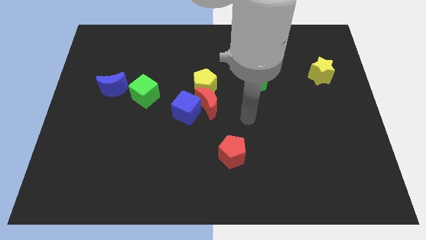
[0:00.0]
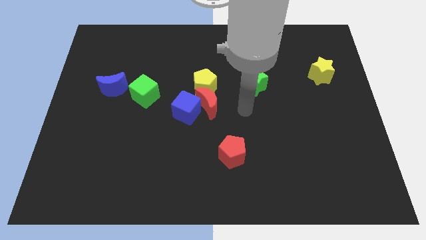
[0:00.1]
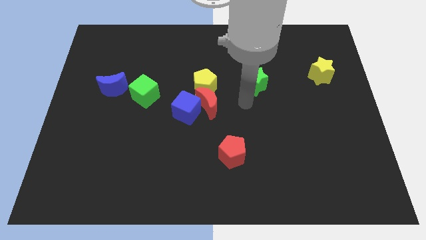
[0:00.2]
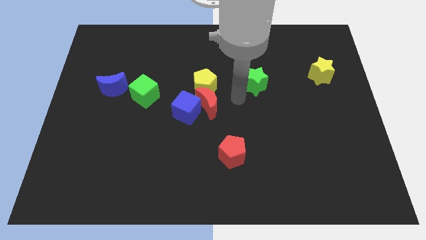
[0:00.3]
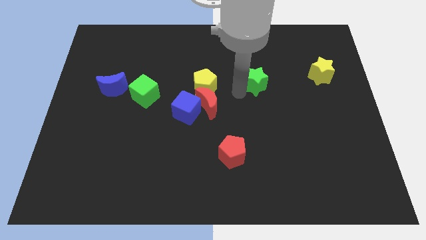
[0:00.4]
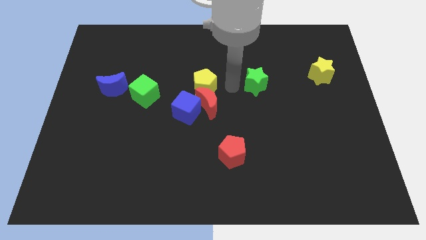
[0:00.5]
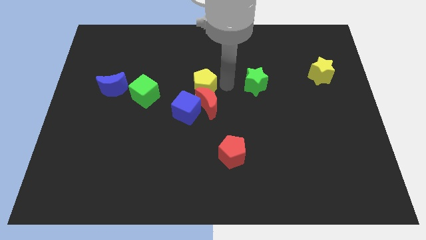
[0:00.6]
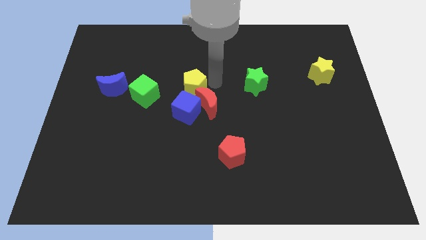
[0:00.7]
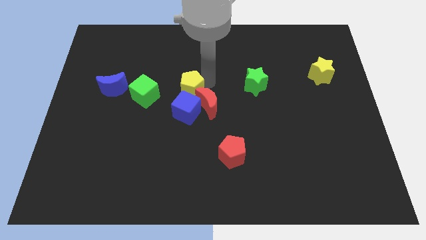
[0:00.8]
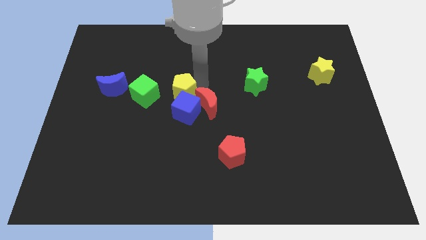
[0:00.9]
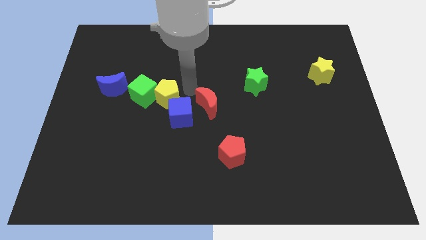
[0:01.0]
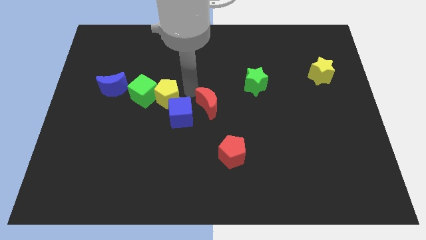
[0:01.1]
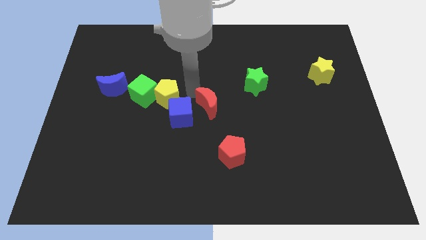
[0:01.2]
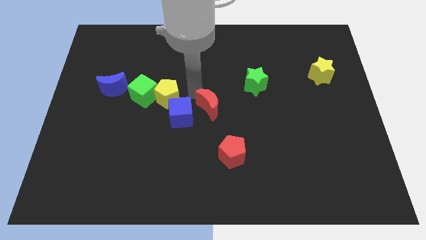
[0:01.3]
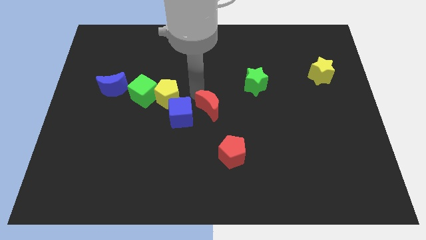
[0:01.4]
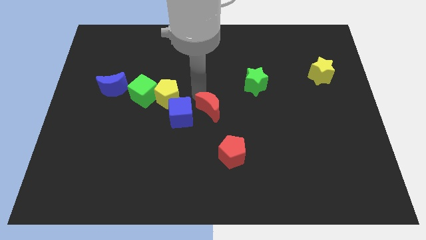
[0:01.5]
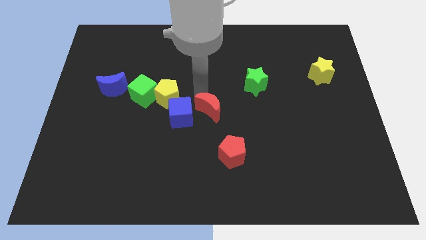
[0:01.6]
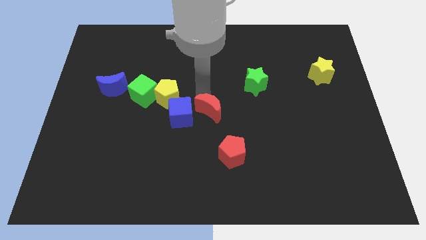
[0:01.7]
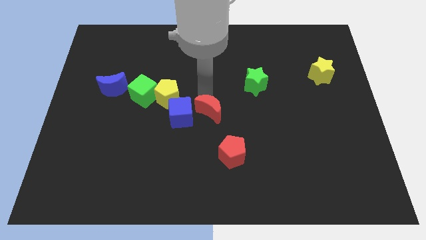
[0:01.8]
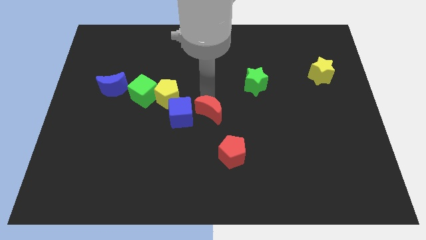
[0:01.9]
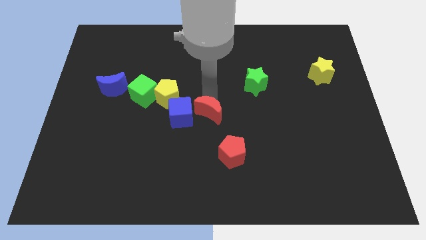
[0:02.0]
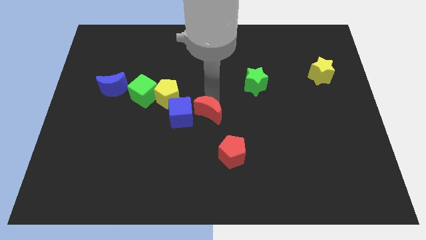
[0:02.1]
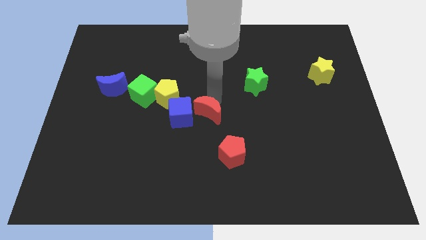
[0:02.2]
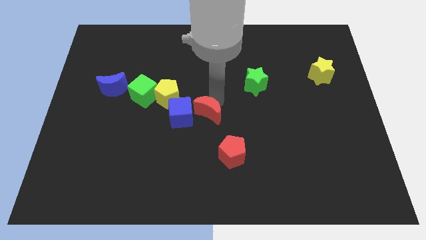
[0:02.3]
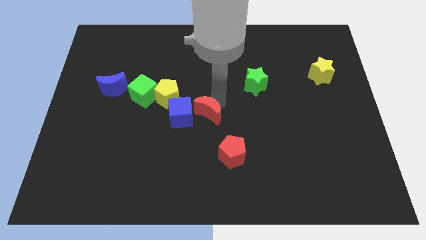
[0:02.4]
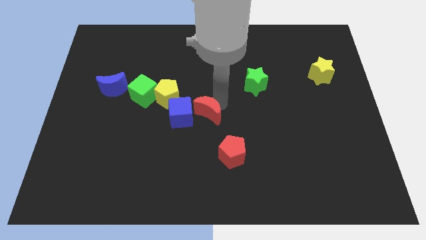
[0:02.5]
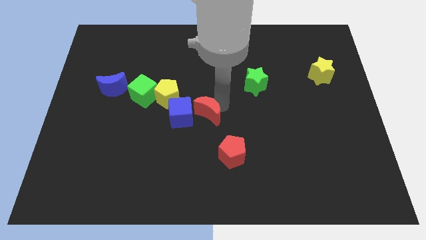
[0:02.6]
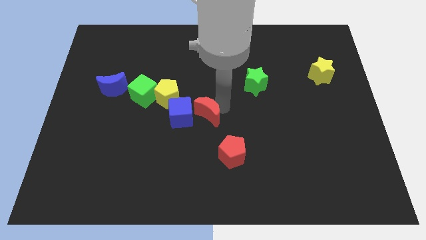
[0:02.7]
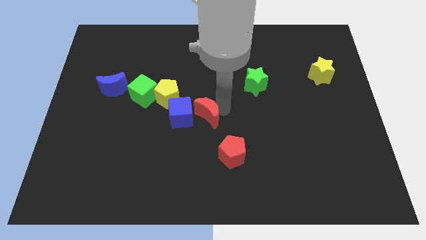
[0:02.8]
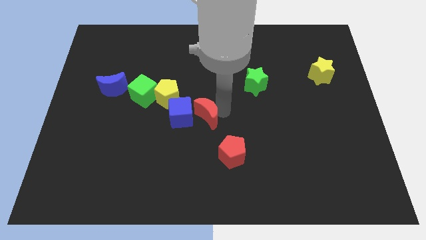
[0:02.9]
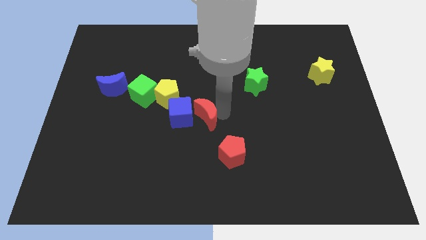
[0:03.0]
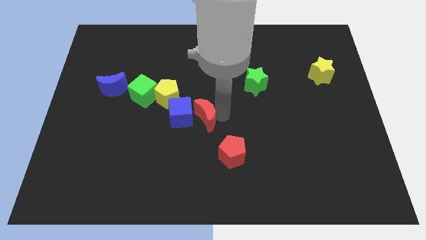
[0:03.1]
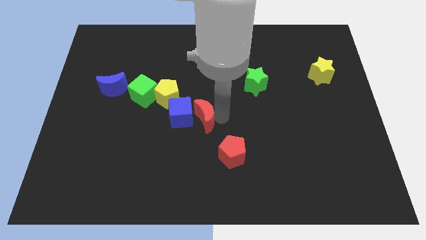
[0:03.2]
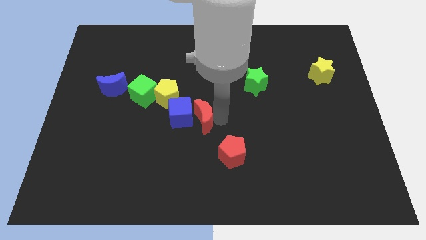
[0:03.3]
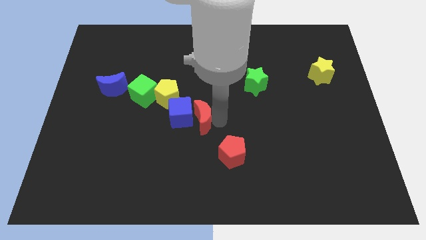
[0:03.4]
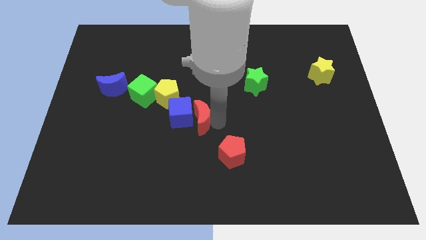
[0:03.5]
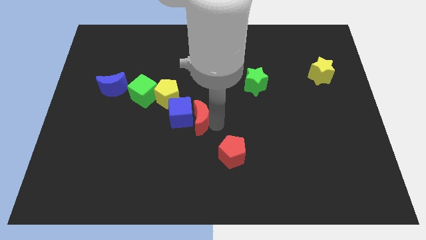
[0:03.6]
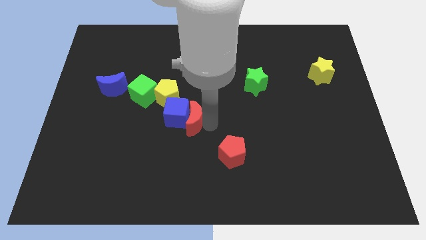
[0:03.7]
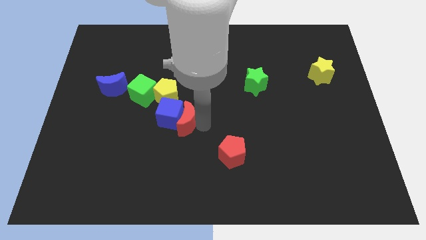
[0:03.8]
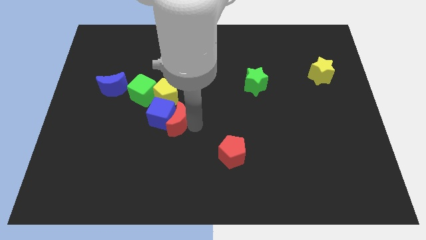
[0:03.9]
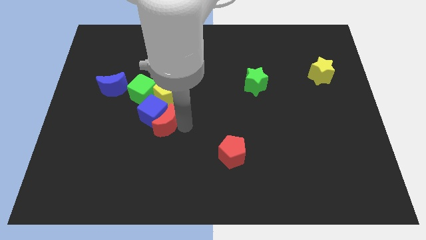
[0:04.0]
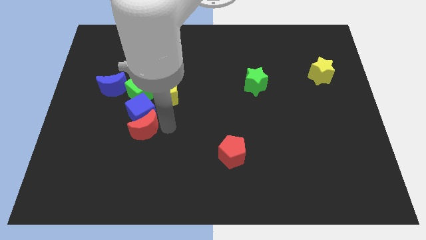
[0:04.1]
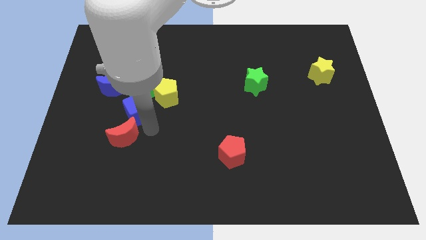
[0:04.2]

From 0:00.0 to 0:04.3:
separate the red moon from the blue cube and yellow pentagon

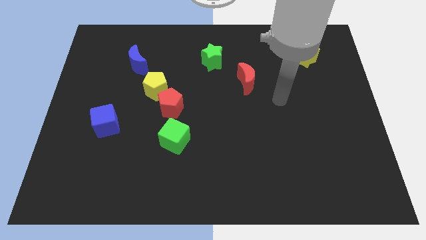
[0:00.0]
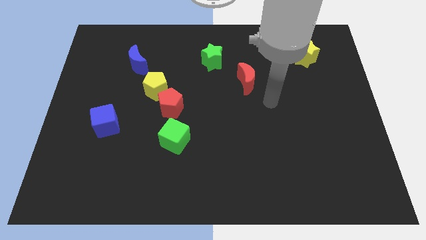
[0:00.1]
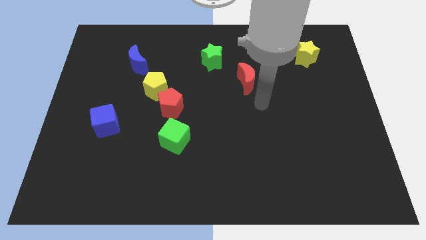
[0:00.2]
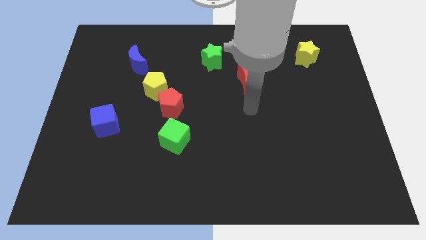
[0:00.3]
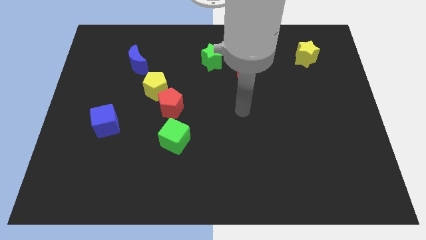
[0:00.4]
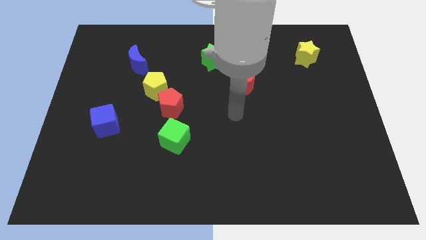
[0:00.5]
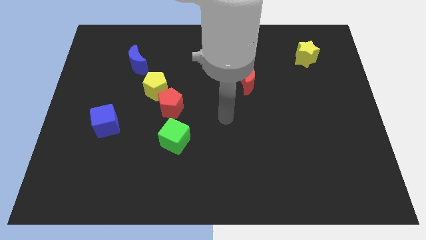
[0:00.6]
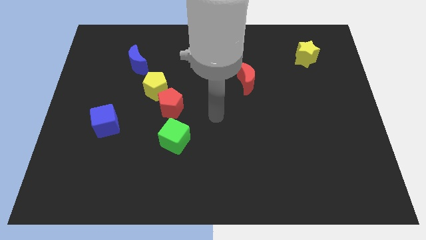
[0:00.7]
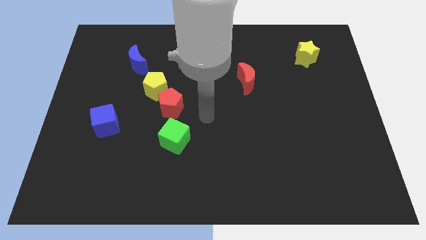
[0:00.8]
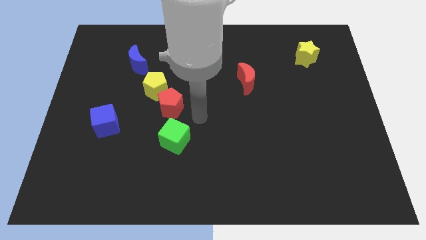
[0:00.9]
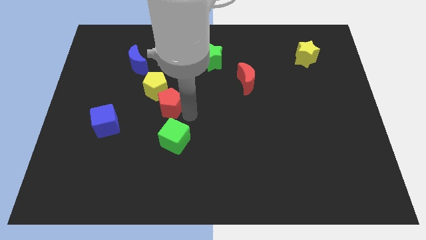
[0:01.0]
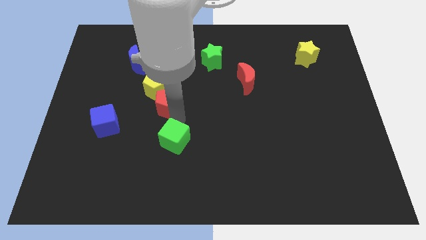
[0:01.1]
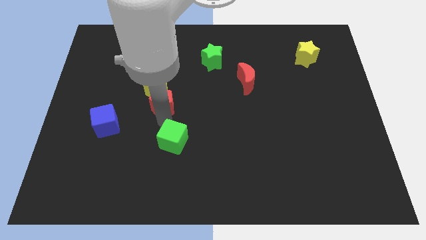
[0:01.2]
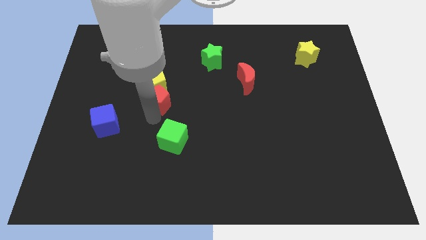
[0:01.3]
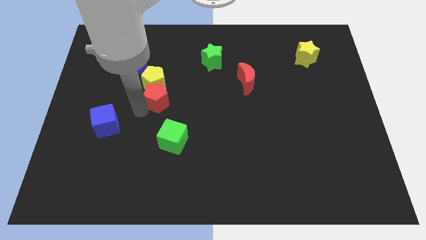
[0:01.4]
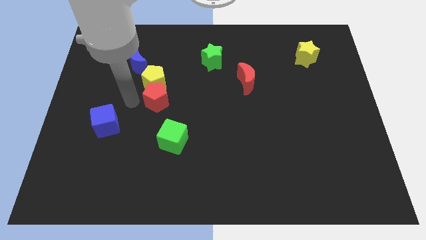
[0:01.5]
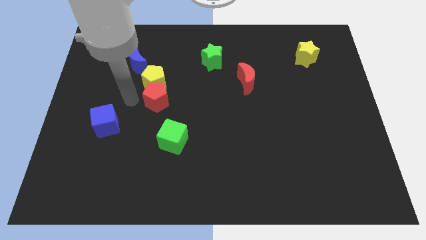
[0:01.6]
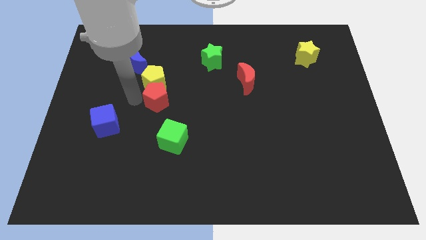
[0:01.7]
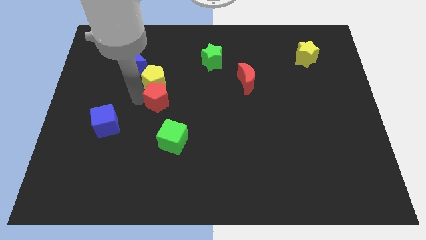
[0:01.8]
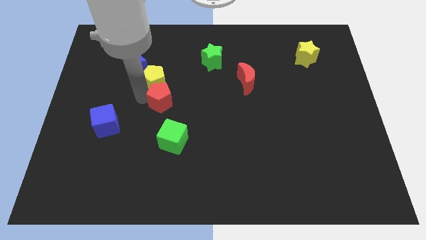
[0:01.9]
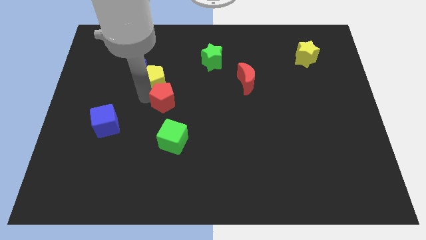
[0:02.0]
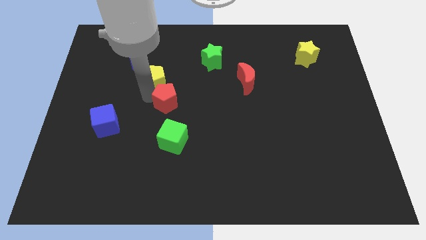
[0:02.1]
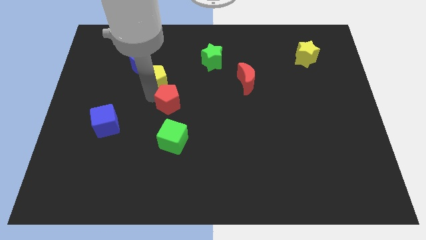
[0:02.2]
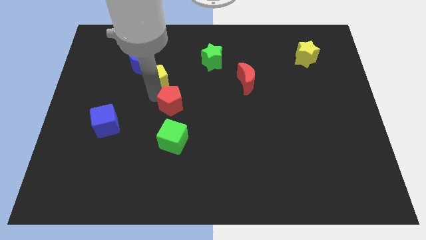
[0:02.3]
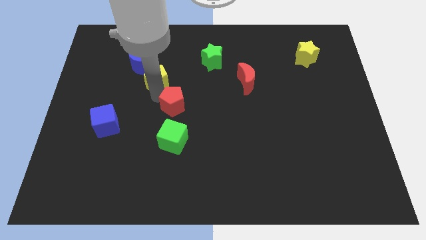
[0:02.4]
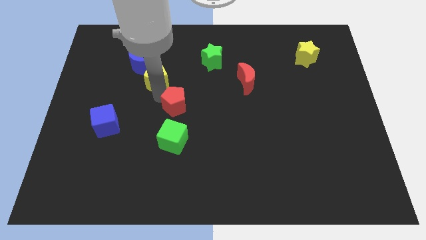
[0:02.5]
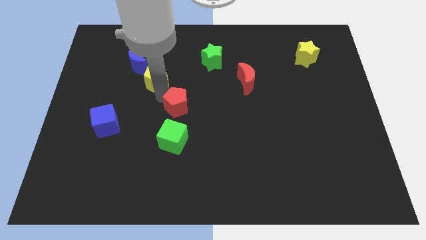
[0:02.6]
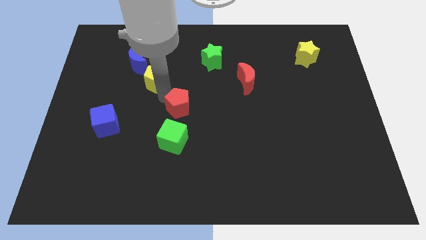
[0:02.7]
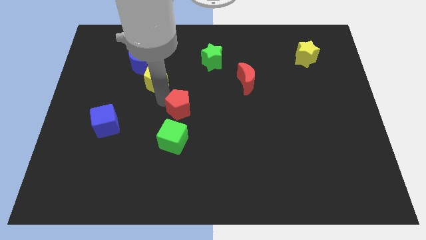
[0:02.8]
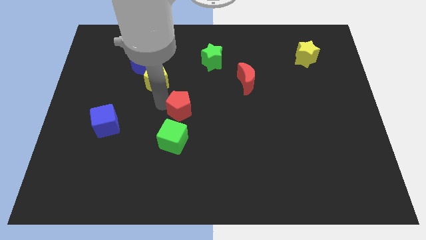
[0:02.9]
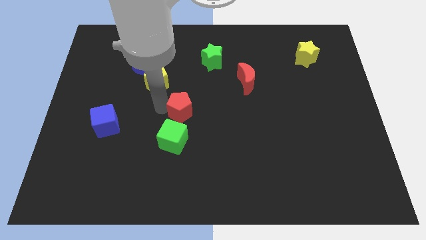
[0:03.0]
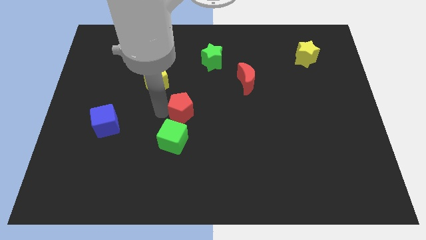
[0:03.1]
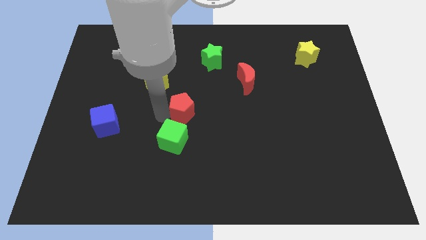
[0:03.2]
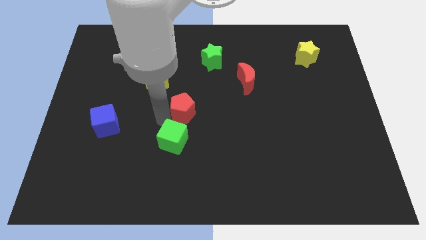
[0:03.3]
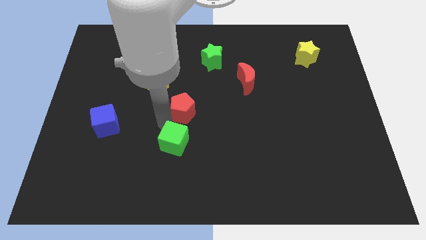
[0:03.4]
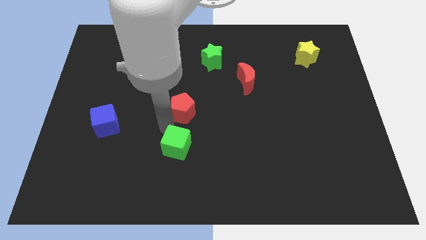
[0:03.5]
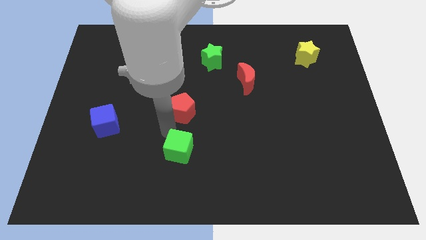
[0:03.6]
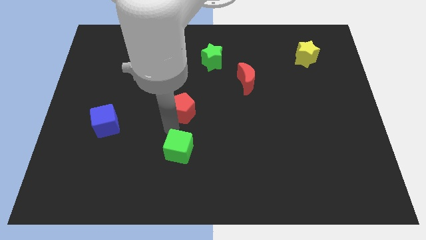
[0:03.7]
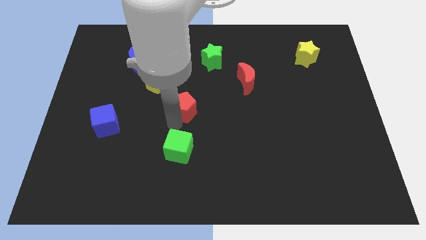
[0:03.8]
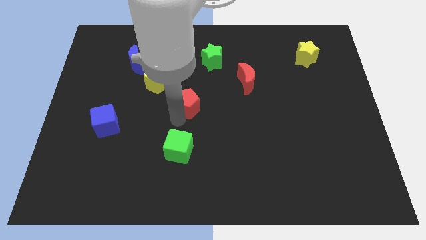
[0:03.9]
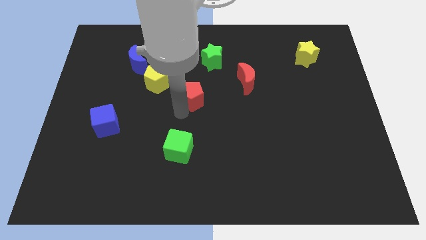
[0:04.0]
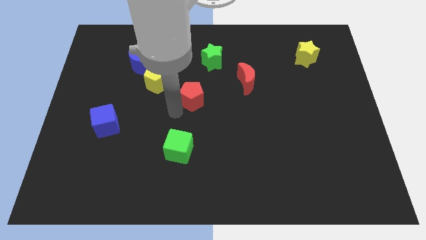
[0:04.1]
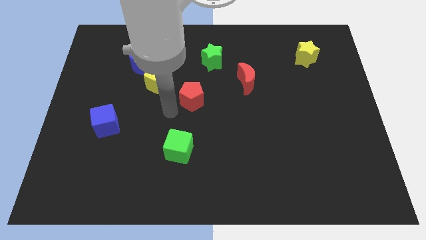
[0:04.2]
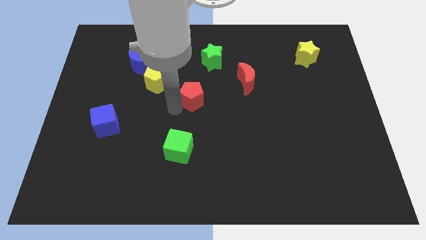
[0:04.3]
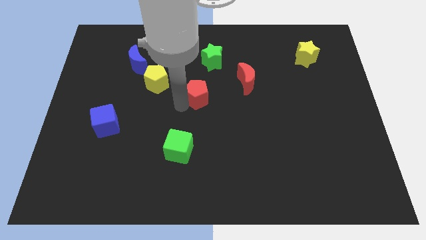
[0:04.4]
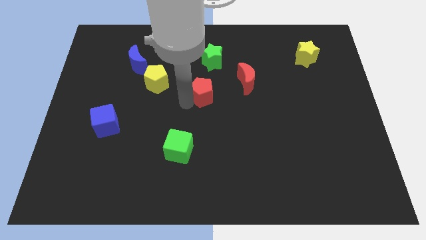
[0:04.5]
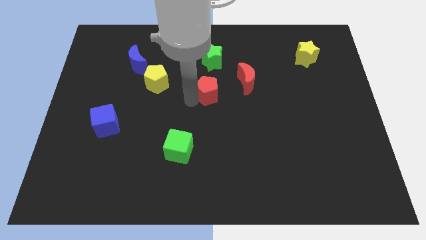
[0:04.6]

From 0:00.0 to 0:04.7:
separate the red pentagon from the yellow pentagon and green cube

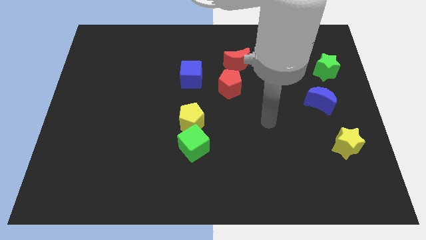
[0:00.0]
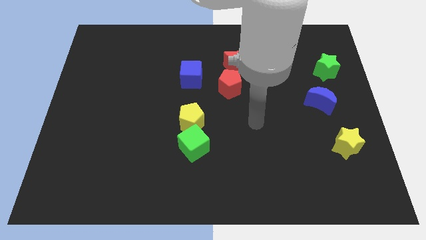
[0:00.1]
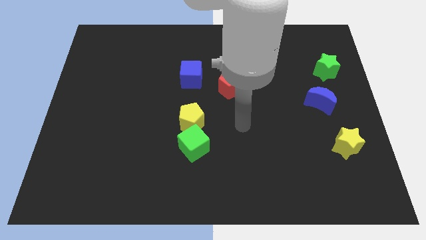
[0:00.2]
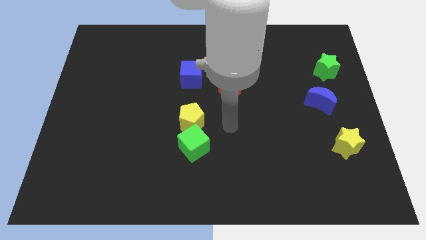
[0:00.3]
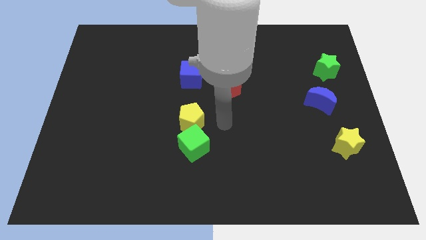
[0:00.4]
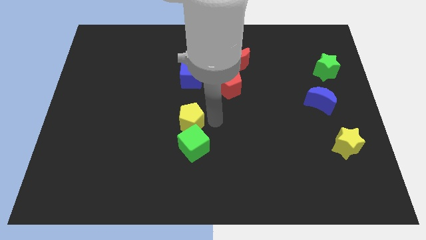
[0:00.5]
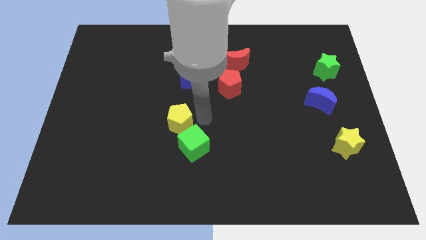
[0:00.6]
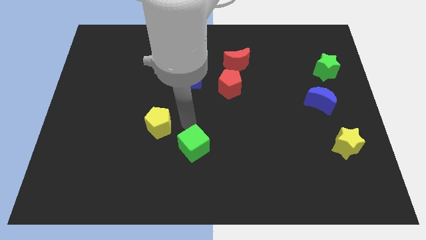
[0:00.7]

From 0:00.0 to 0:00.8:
move the green cube away from the yellow pentagon
